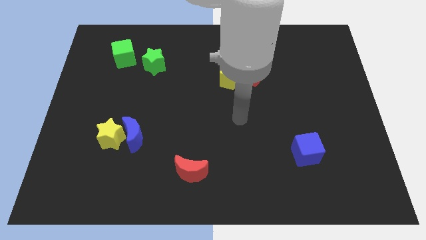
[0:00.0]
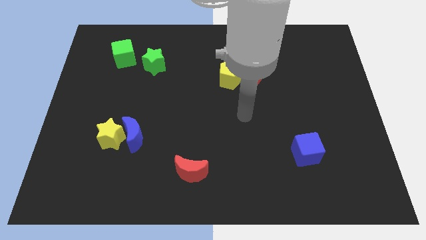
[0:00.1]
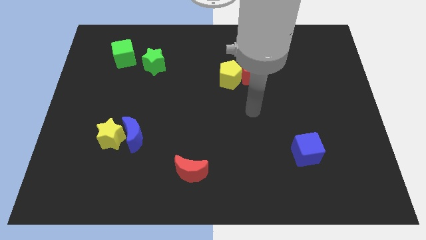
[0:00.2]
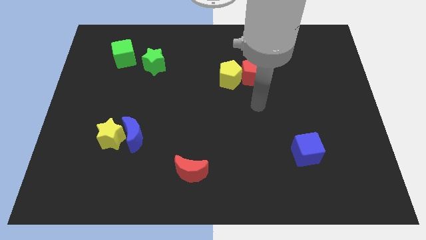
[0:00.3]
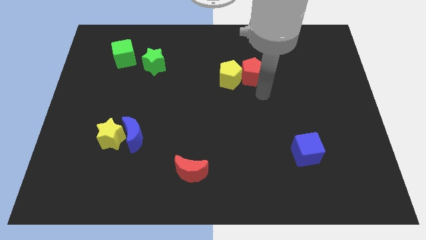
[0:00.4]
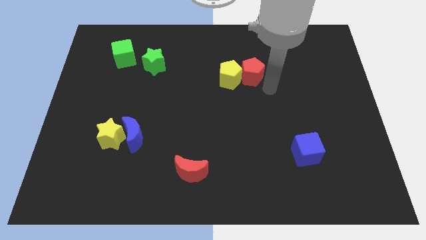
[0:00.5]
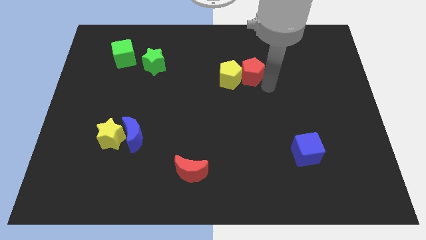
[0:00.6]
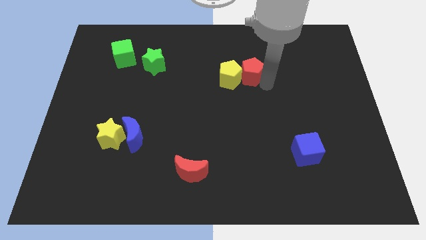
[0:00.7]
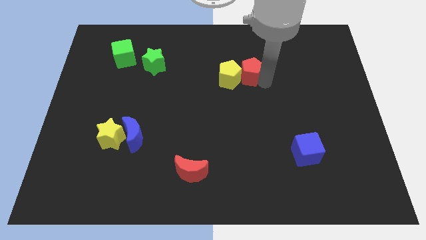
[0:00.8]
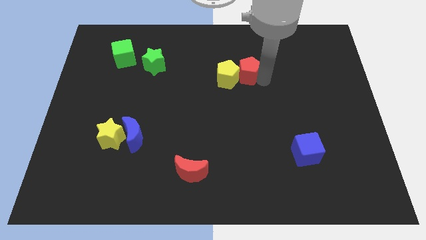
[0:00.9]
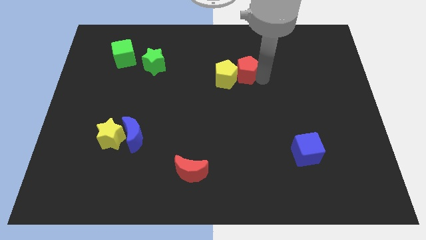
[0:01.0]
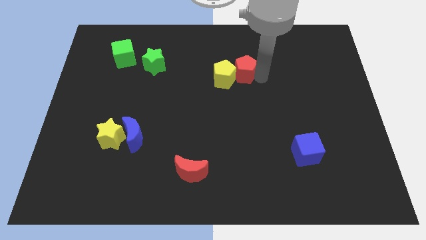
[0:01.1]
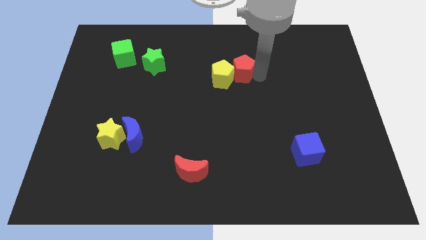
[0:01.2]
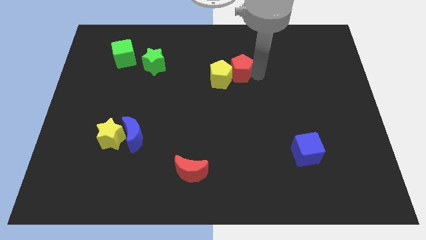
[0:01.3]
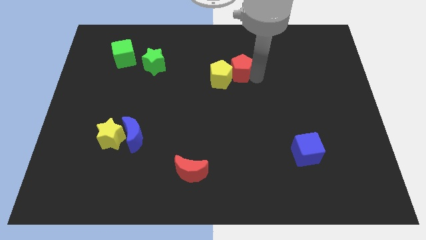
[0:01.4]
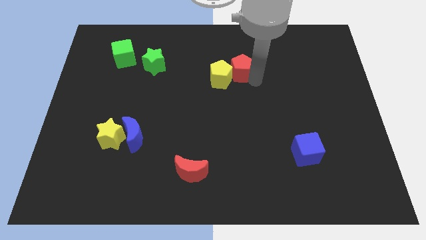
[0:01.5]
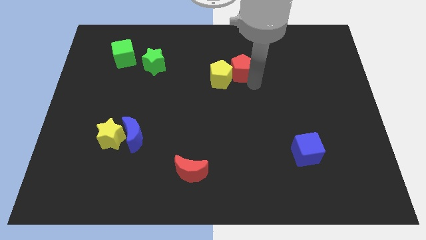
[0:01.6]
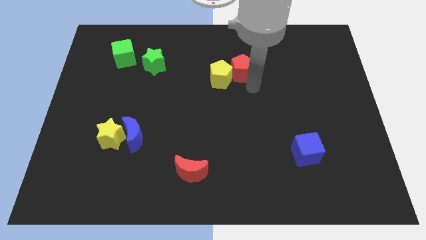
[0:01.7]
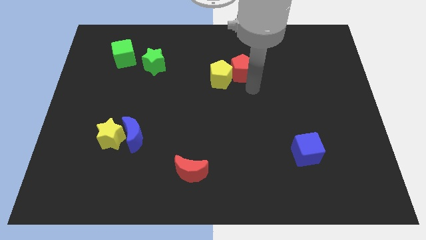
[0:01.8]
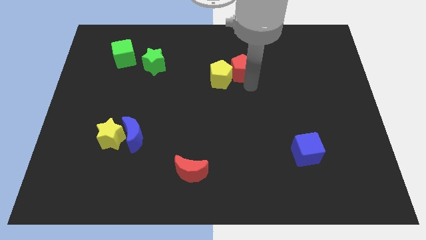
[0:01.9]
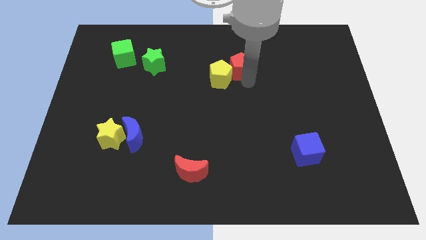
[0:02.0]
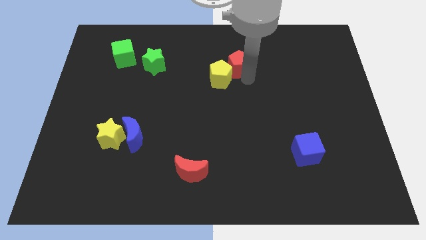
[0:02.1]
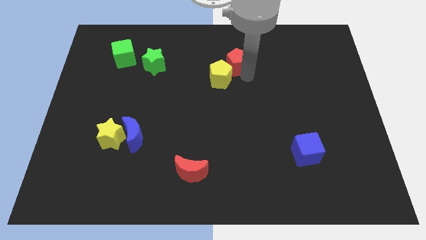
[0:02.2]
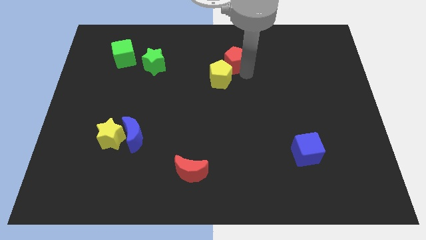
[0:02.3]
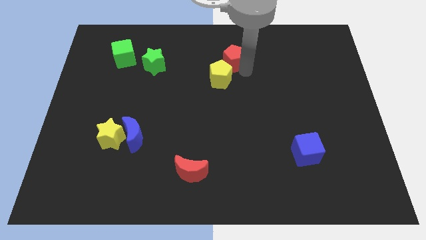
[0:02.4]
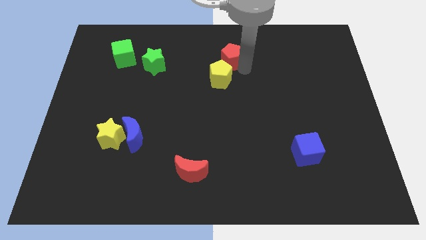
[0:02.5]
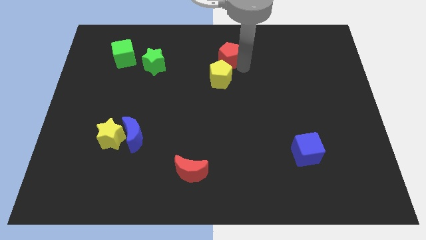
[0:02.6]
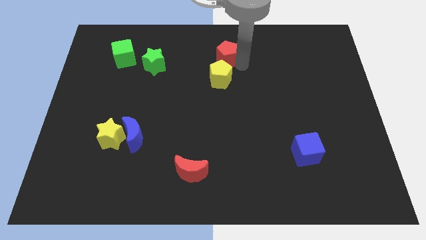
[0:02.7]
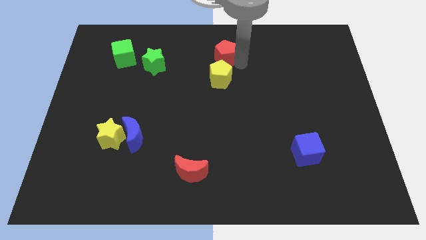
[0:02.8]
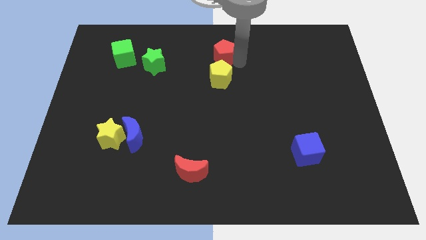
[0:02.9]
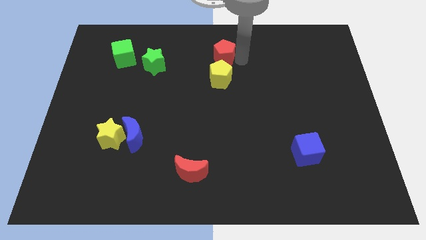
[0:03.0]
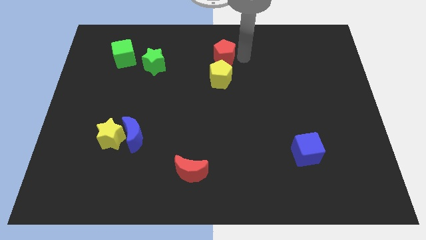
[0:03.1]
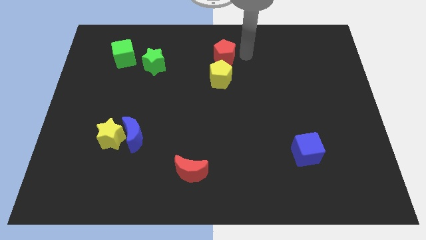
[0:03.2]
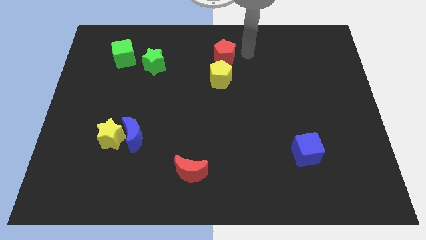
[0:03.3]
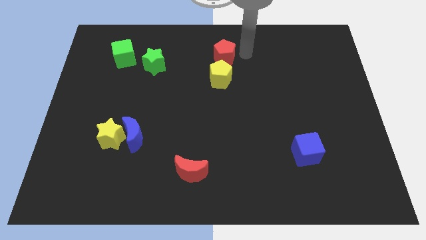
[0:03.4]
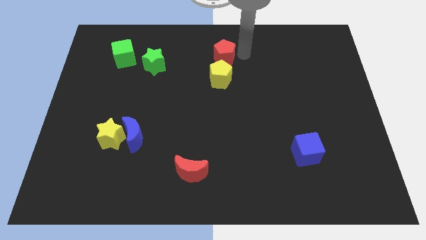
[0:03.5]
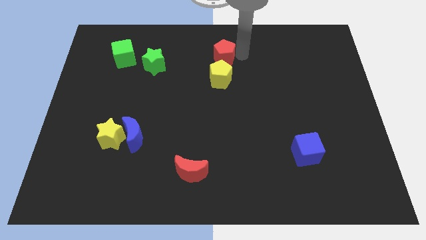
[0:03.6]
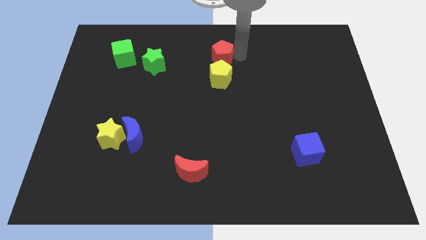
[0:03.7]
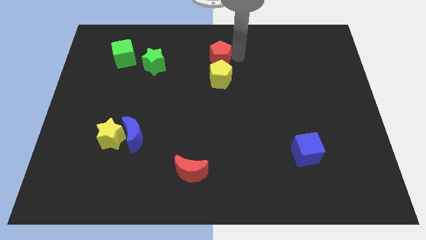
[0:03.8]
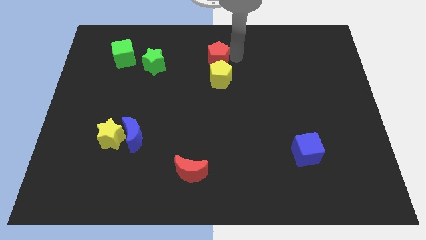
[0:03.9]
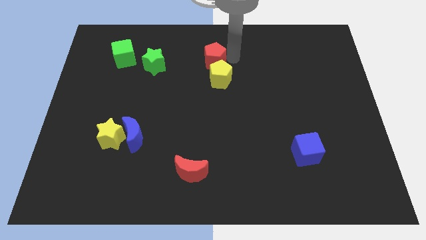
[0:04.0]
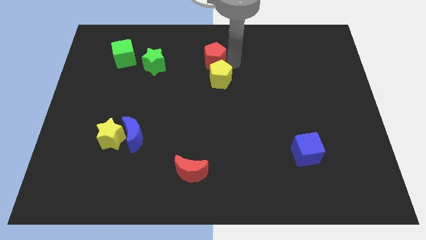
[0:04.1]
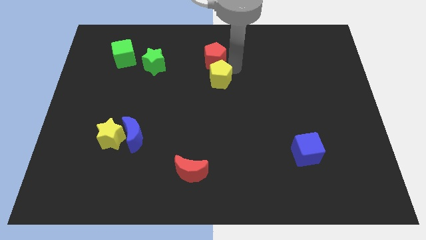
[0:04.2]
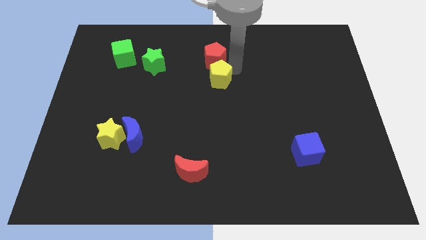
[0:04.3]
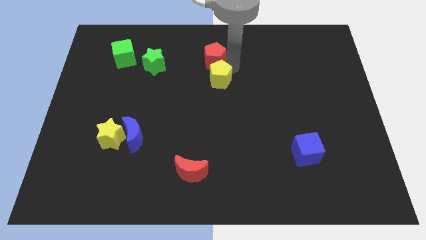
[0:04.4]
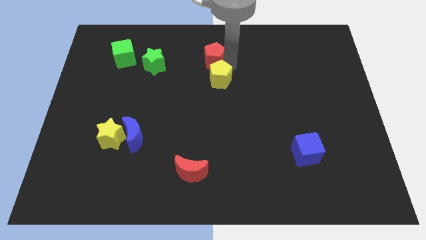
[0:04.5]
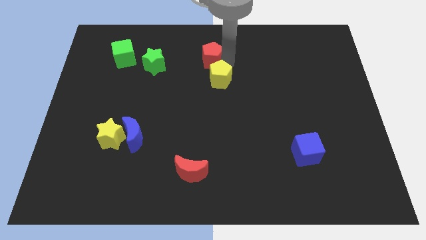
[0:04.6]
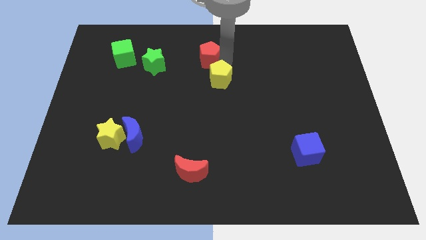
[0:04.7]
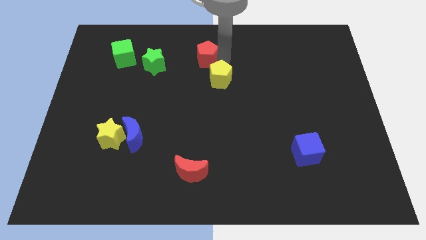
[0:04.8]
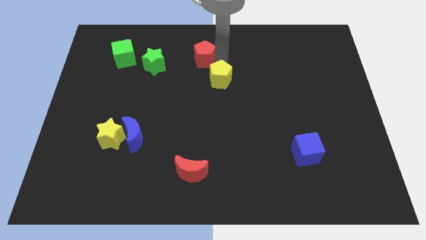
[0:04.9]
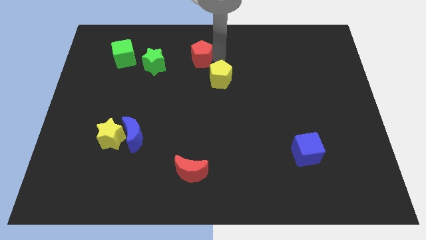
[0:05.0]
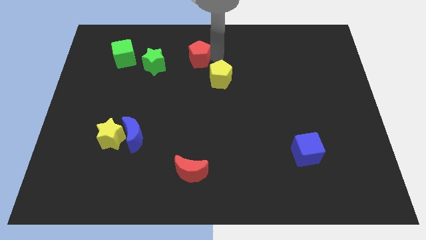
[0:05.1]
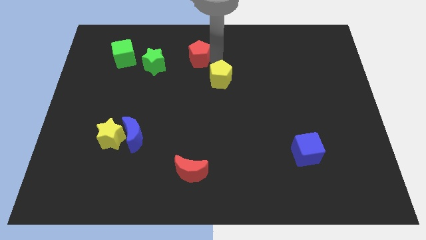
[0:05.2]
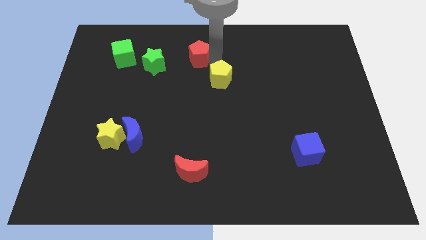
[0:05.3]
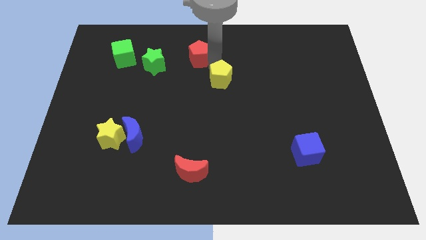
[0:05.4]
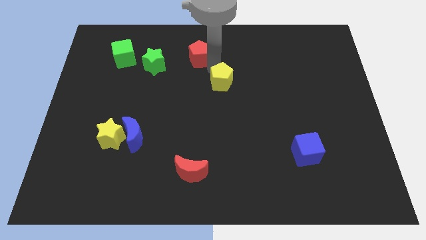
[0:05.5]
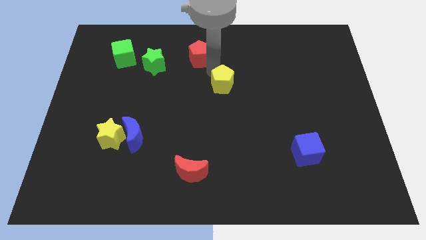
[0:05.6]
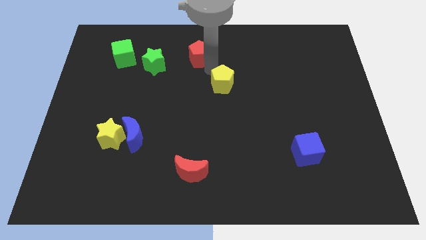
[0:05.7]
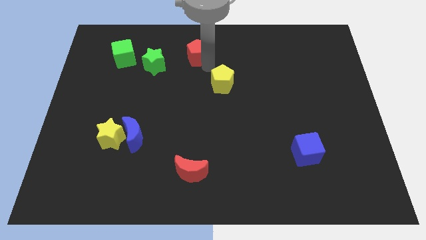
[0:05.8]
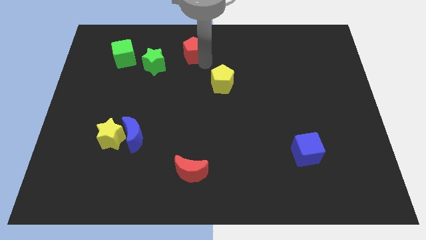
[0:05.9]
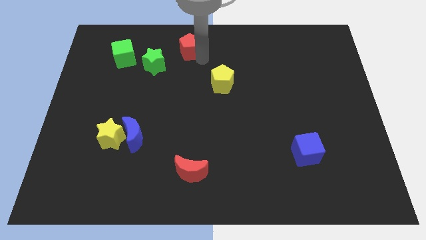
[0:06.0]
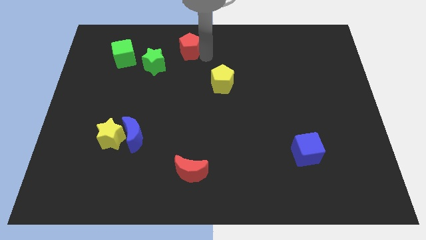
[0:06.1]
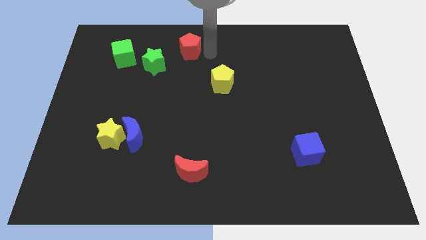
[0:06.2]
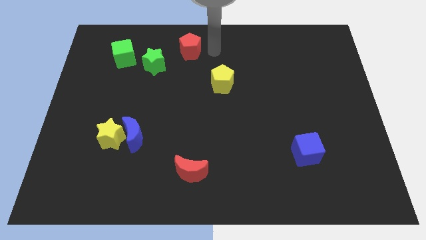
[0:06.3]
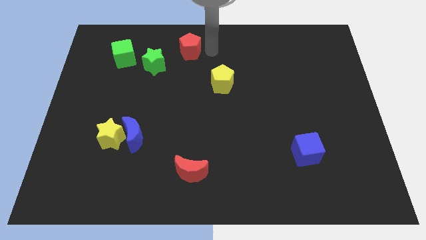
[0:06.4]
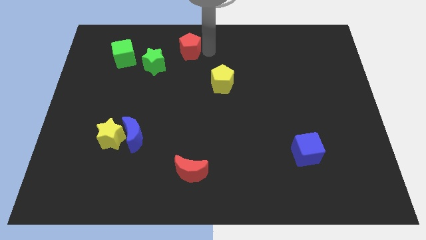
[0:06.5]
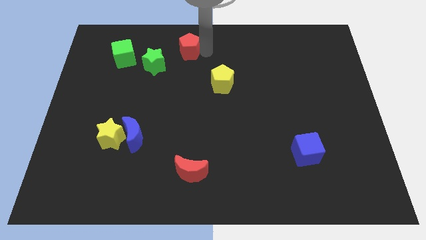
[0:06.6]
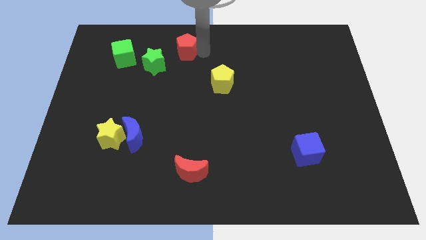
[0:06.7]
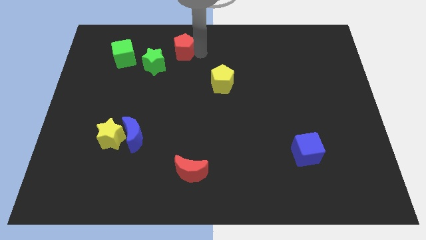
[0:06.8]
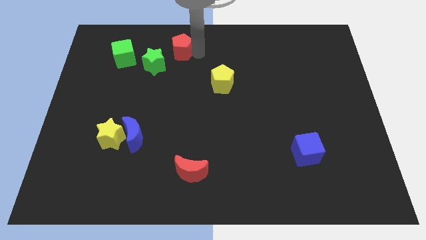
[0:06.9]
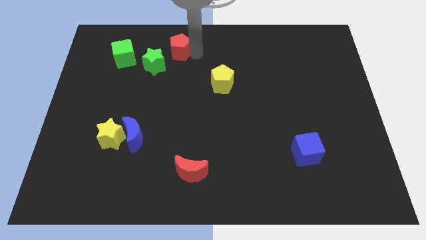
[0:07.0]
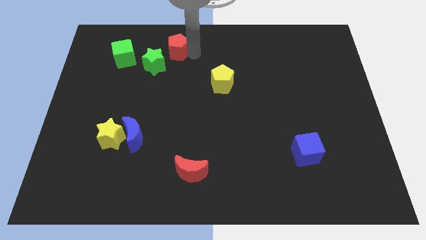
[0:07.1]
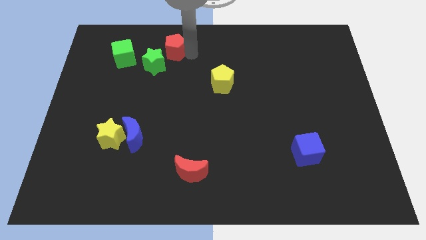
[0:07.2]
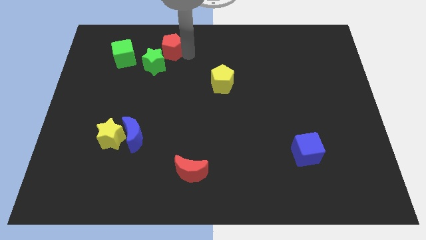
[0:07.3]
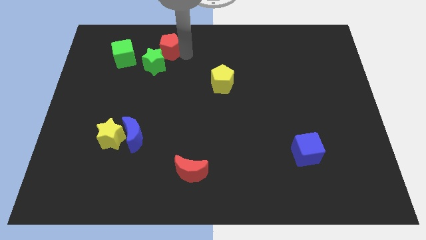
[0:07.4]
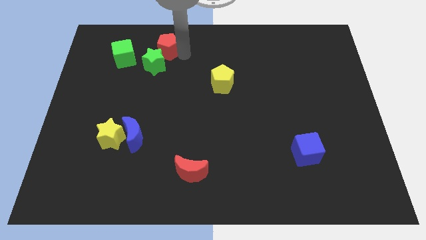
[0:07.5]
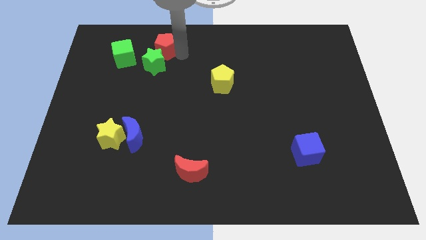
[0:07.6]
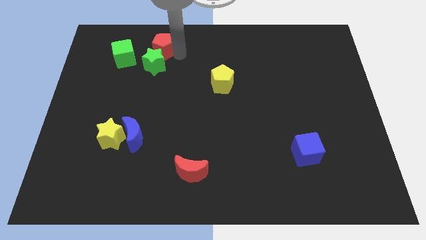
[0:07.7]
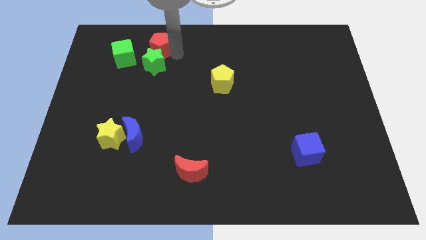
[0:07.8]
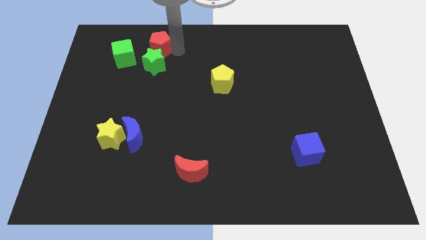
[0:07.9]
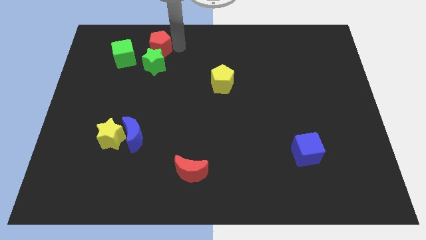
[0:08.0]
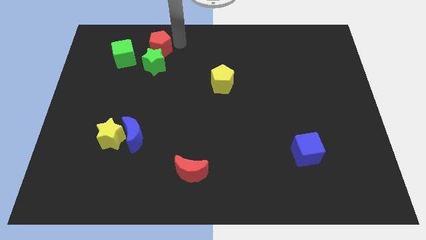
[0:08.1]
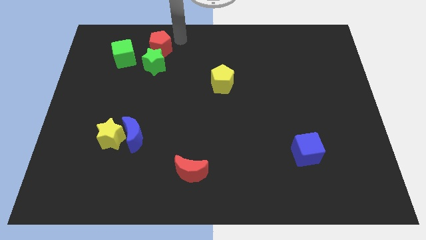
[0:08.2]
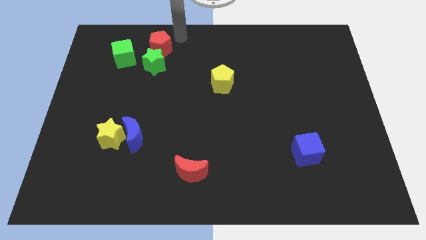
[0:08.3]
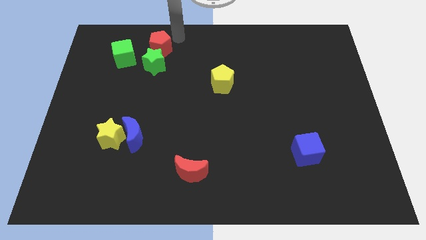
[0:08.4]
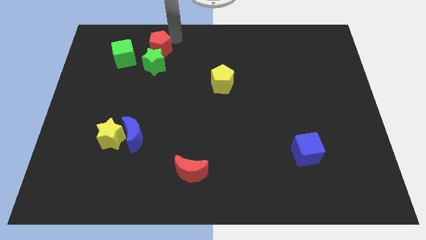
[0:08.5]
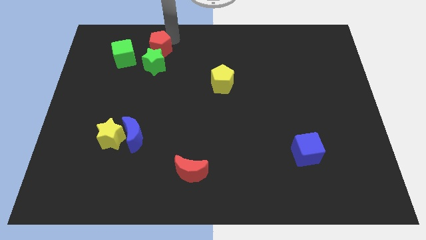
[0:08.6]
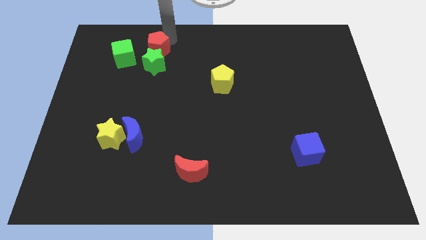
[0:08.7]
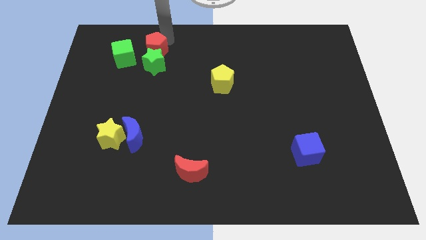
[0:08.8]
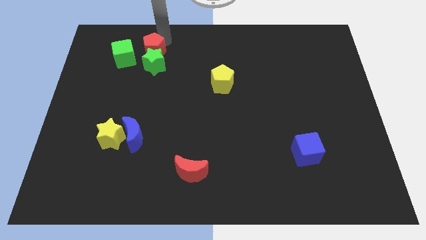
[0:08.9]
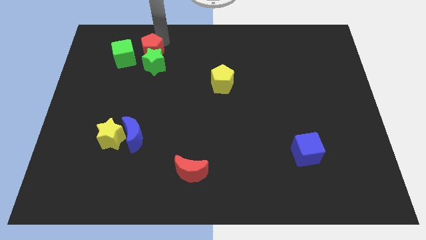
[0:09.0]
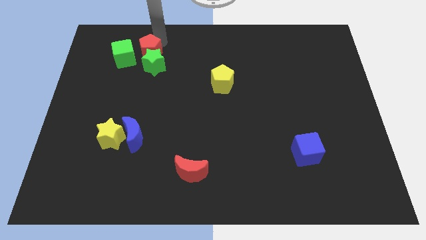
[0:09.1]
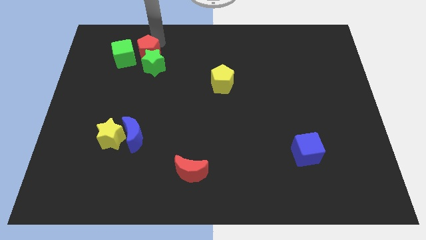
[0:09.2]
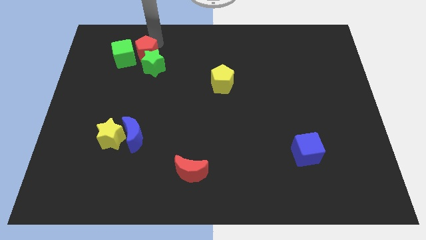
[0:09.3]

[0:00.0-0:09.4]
push the red pentagon next to the green cube
